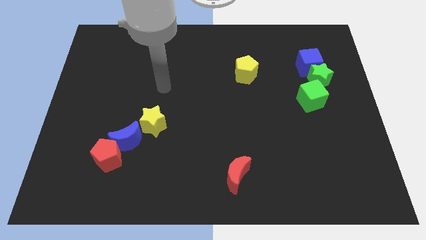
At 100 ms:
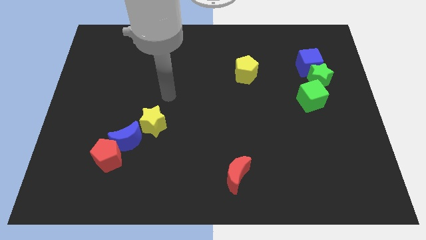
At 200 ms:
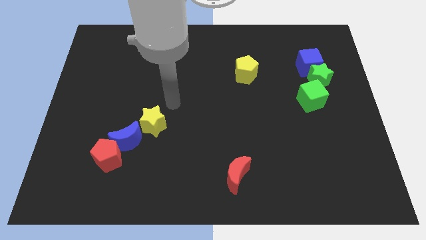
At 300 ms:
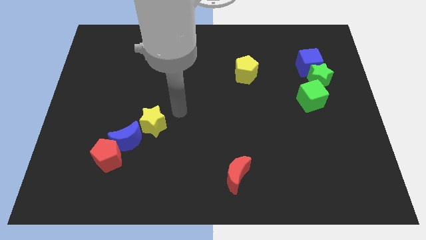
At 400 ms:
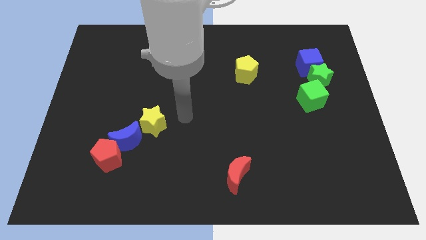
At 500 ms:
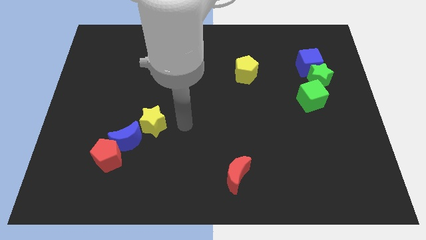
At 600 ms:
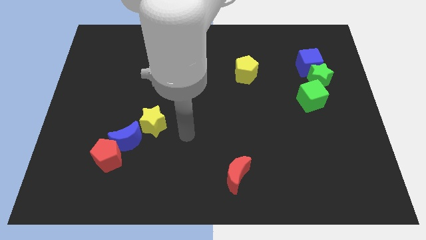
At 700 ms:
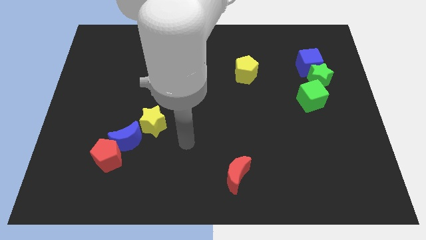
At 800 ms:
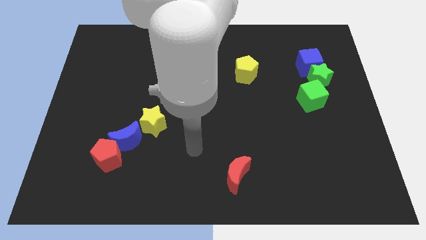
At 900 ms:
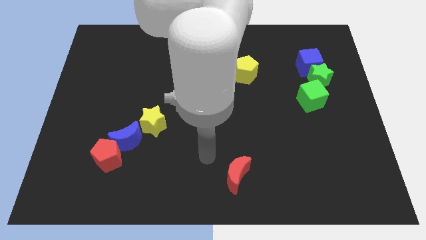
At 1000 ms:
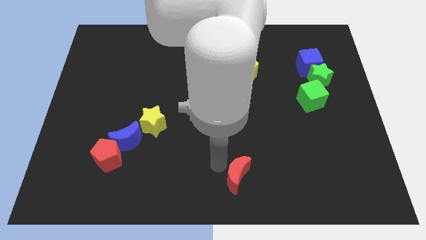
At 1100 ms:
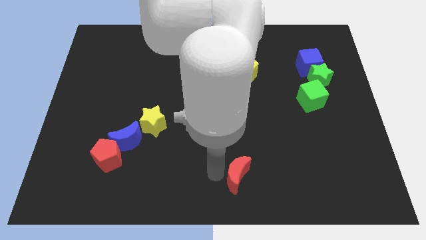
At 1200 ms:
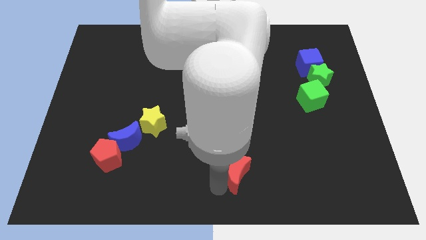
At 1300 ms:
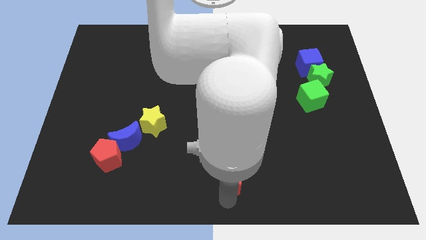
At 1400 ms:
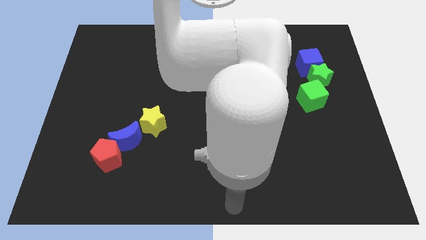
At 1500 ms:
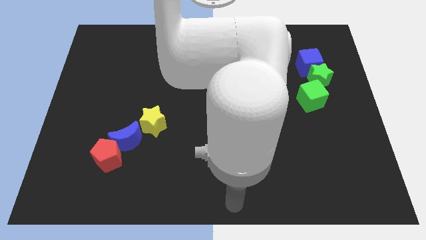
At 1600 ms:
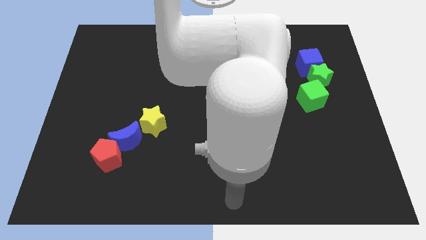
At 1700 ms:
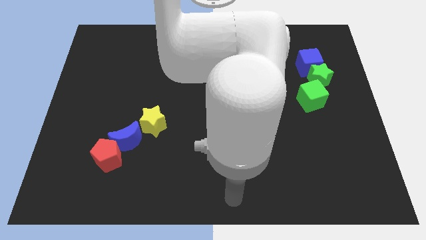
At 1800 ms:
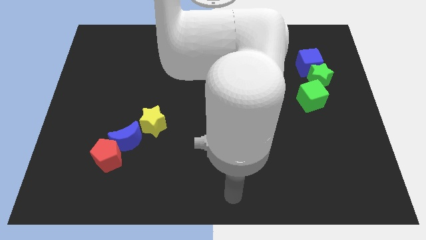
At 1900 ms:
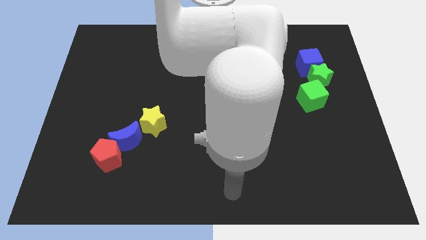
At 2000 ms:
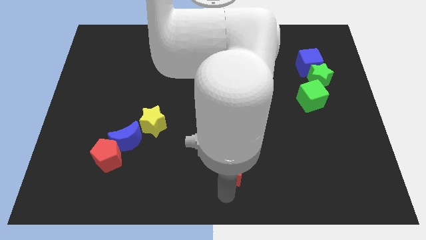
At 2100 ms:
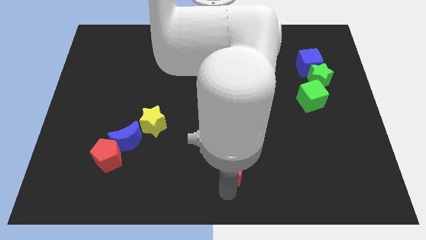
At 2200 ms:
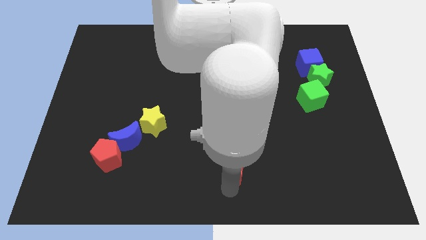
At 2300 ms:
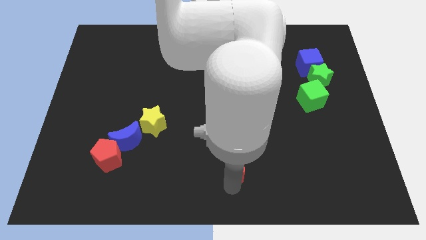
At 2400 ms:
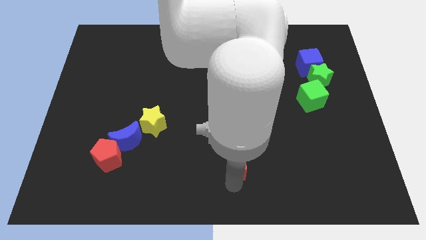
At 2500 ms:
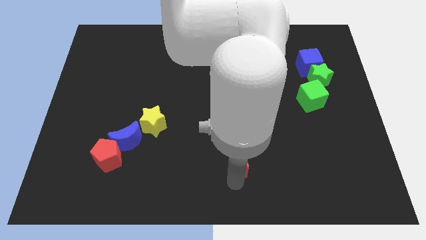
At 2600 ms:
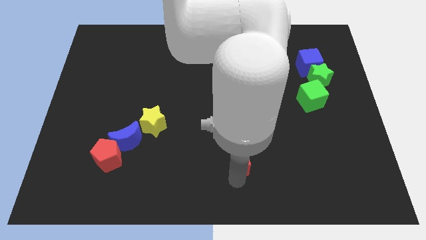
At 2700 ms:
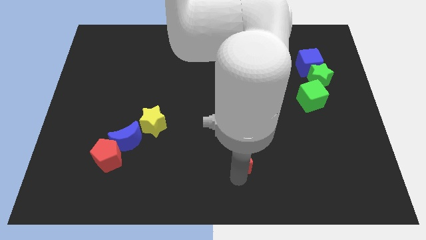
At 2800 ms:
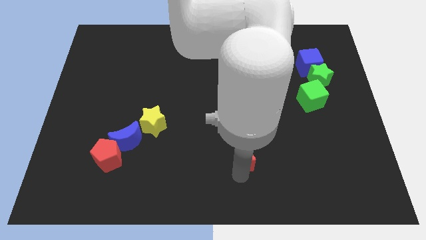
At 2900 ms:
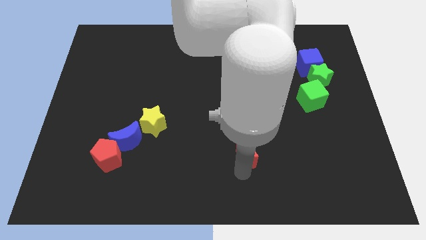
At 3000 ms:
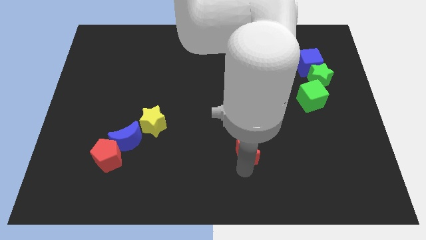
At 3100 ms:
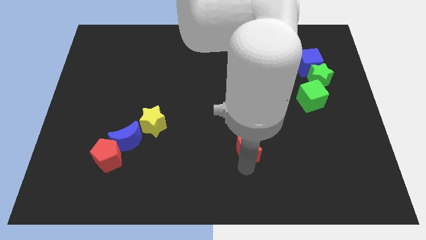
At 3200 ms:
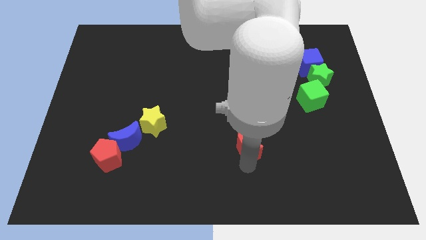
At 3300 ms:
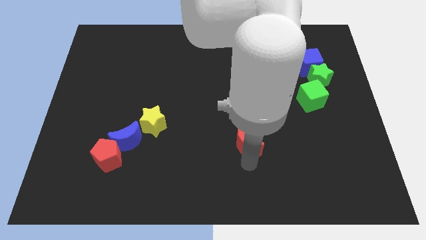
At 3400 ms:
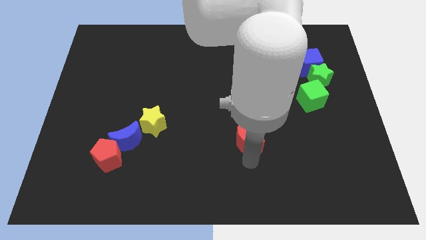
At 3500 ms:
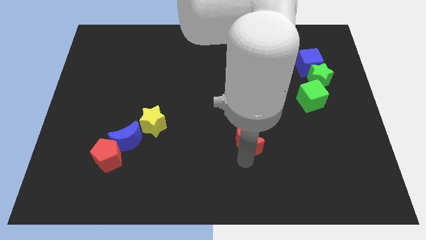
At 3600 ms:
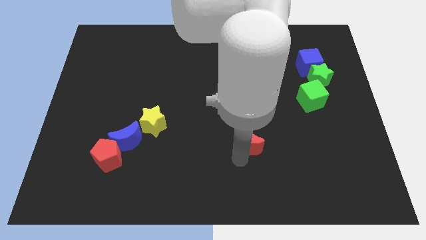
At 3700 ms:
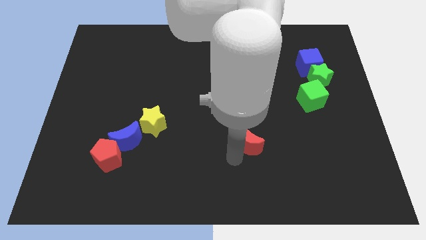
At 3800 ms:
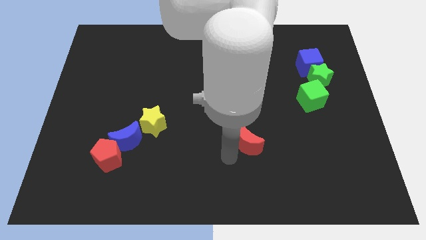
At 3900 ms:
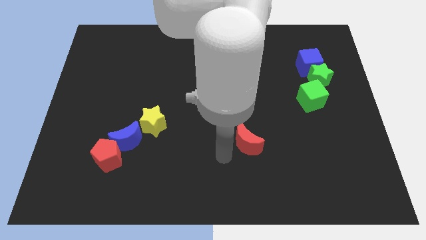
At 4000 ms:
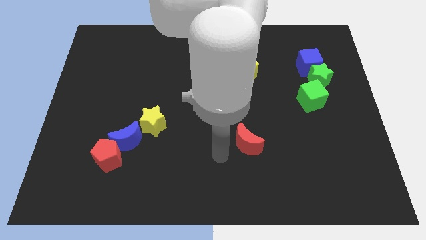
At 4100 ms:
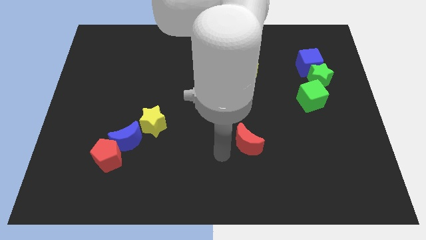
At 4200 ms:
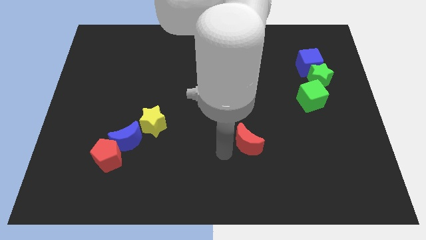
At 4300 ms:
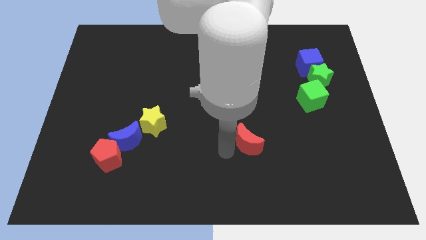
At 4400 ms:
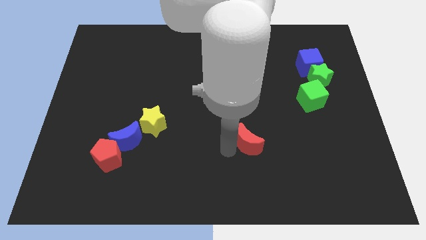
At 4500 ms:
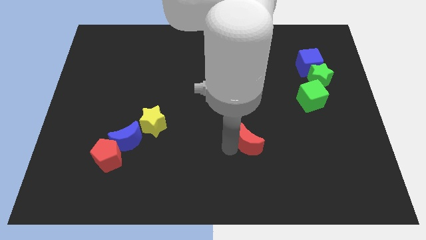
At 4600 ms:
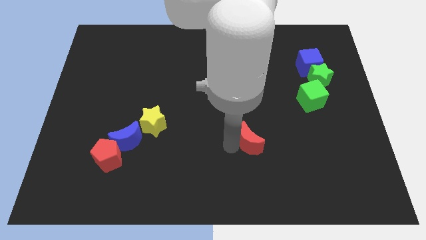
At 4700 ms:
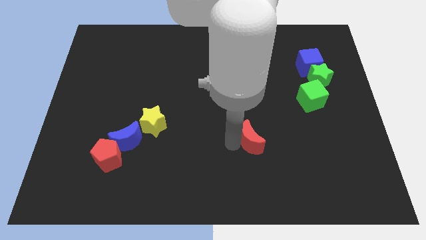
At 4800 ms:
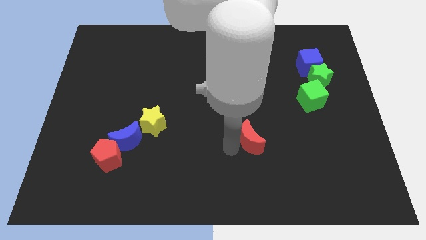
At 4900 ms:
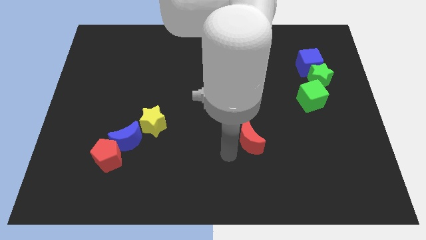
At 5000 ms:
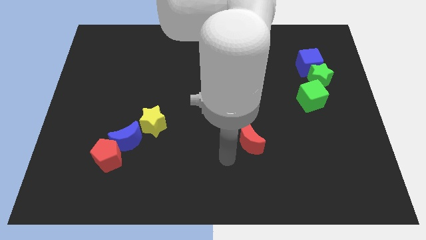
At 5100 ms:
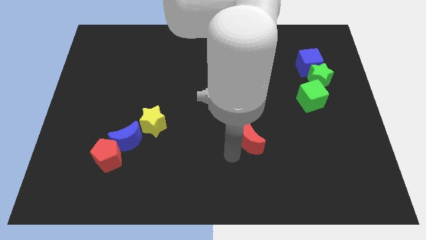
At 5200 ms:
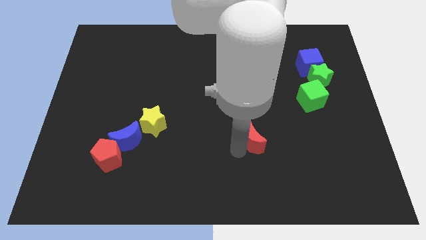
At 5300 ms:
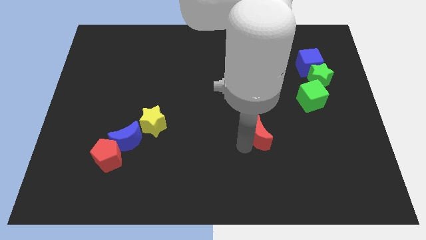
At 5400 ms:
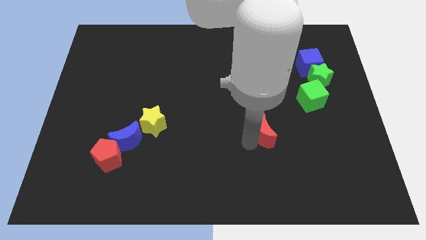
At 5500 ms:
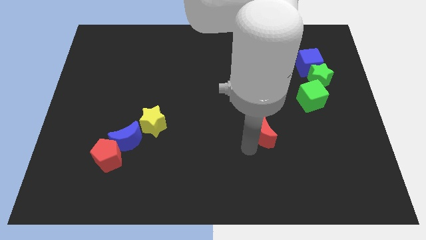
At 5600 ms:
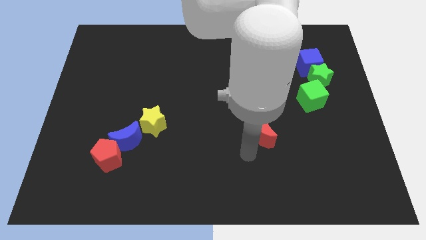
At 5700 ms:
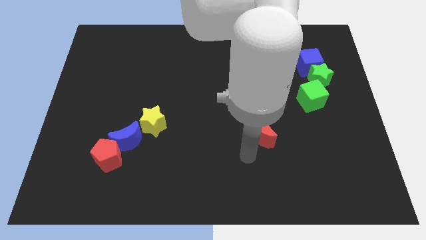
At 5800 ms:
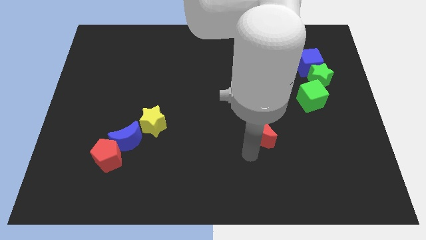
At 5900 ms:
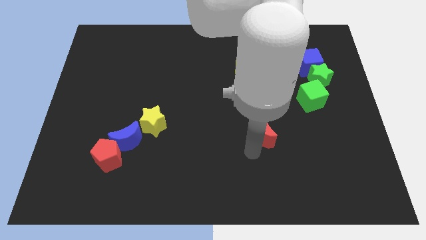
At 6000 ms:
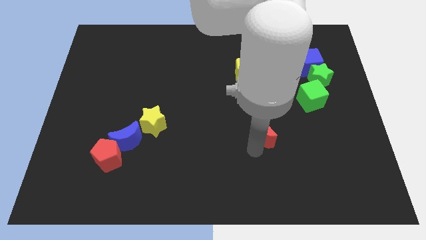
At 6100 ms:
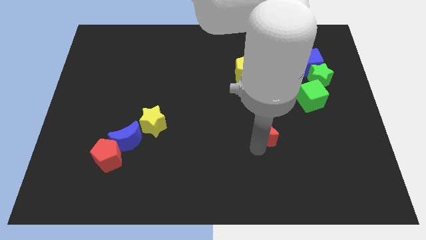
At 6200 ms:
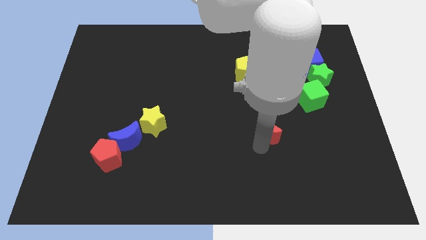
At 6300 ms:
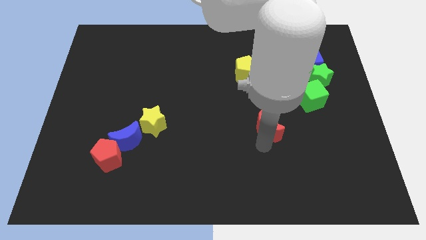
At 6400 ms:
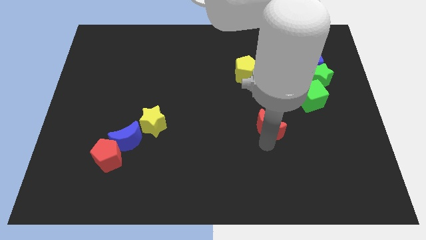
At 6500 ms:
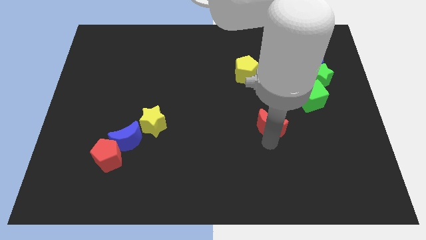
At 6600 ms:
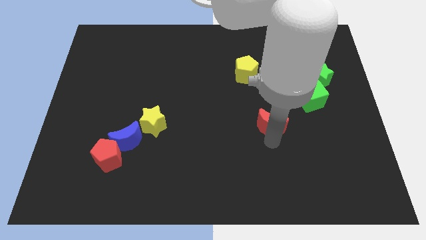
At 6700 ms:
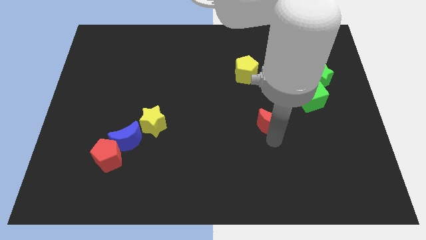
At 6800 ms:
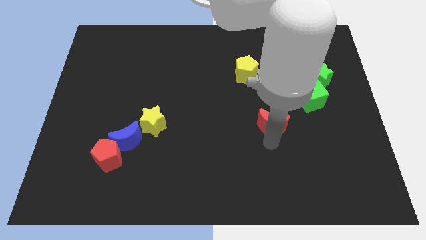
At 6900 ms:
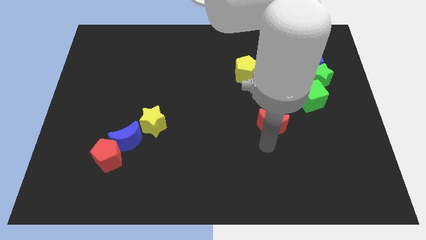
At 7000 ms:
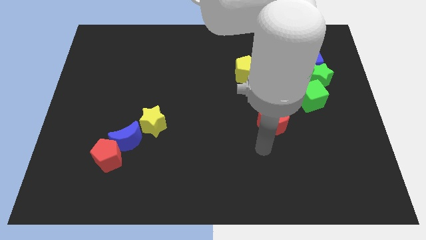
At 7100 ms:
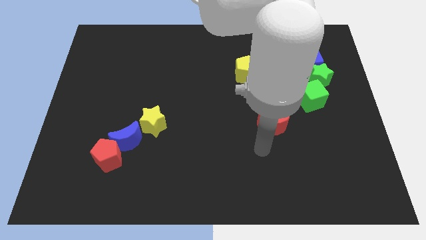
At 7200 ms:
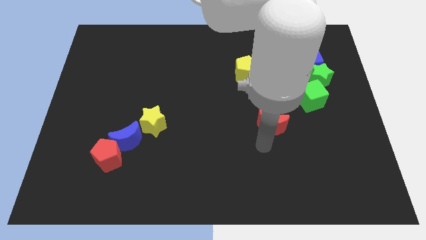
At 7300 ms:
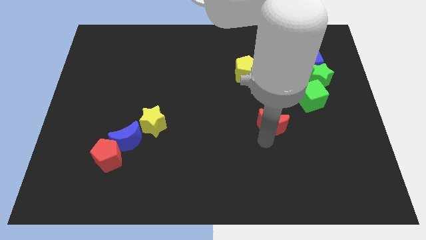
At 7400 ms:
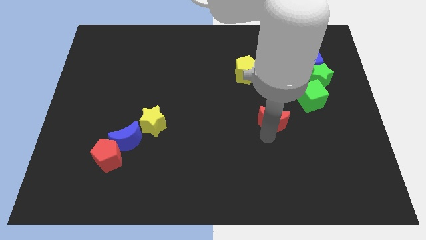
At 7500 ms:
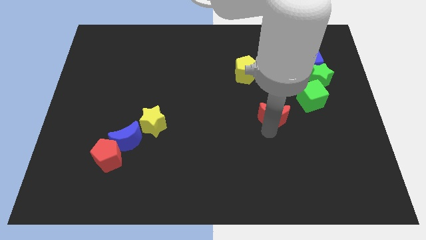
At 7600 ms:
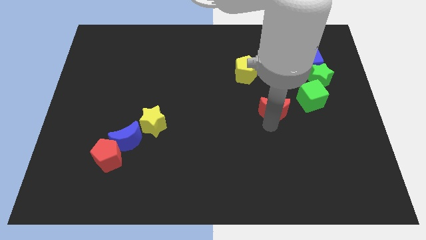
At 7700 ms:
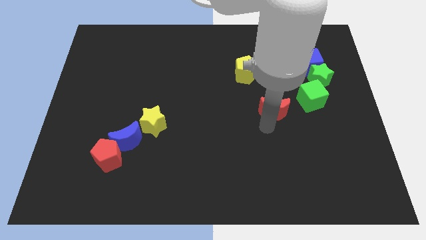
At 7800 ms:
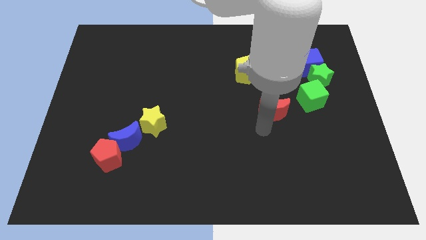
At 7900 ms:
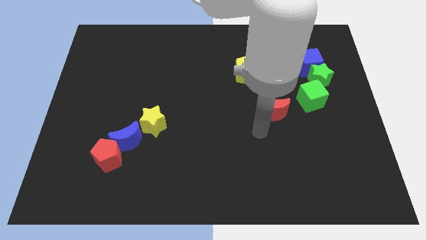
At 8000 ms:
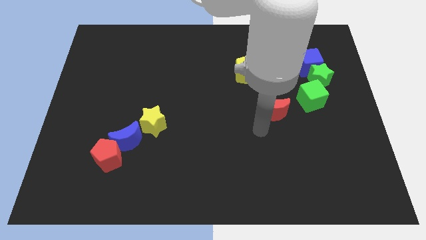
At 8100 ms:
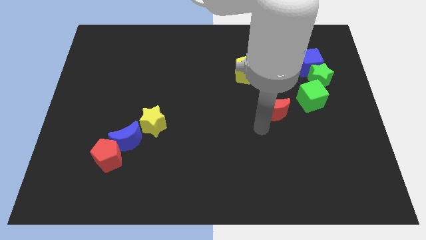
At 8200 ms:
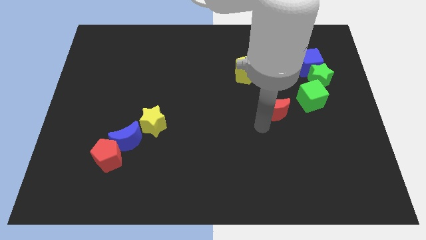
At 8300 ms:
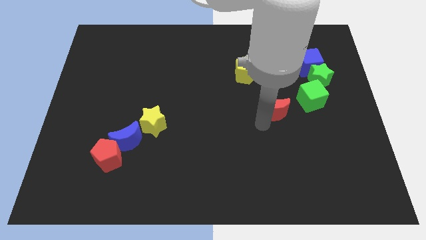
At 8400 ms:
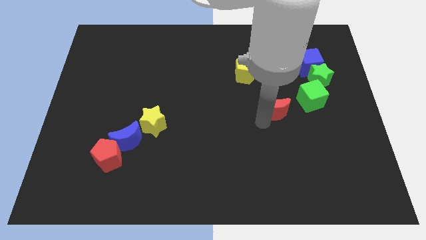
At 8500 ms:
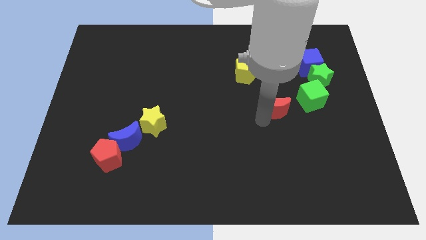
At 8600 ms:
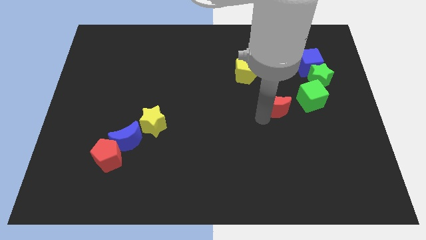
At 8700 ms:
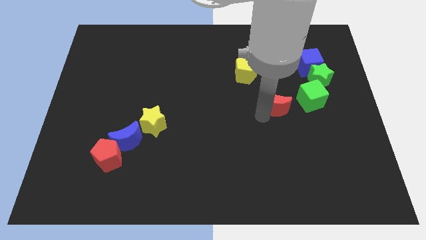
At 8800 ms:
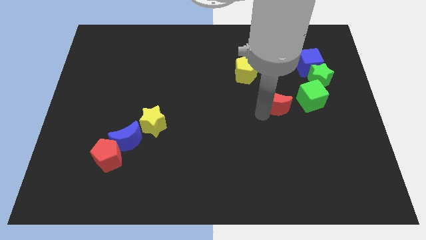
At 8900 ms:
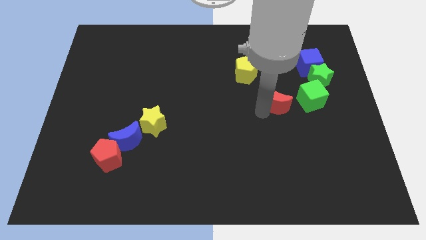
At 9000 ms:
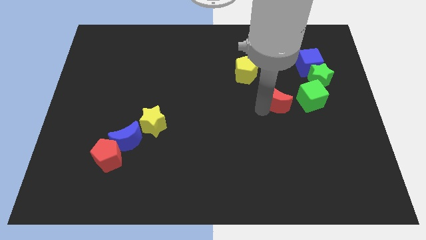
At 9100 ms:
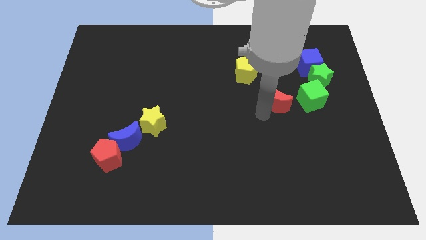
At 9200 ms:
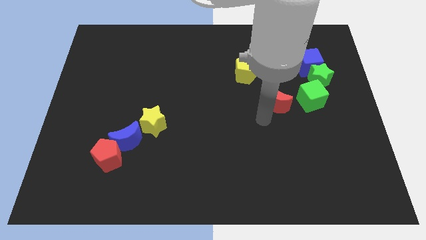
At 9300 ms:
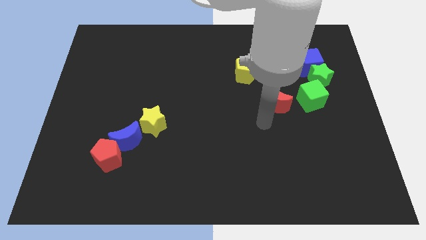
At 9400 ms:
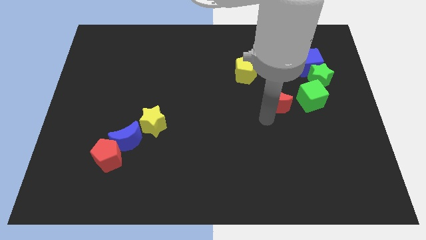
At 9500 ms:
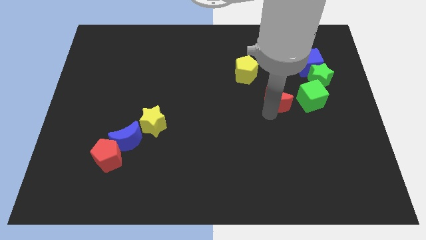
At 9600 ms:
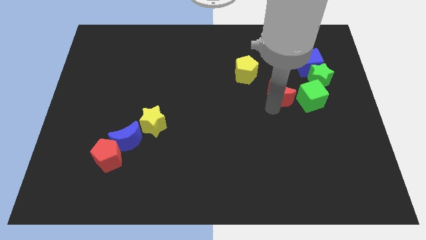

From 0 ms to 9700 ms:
put the red moon to the top left side of the green cube
